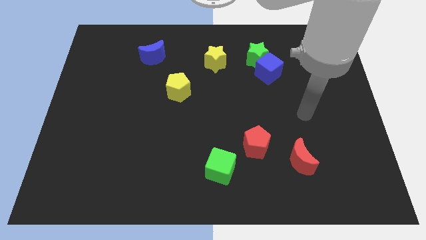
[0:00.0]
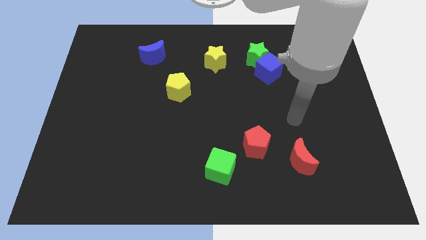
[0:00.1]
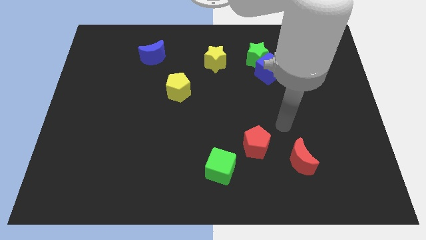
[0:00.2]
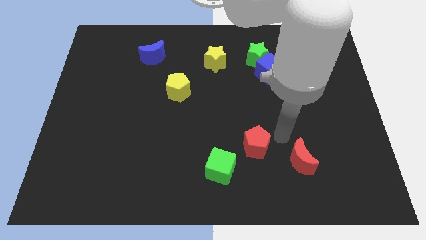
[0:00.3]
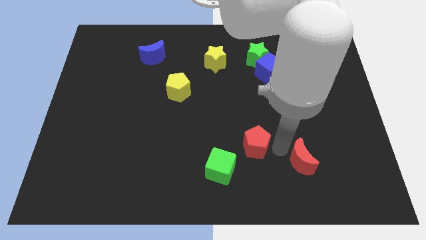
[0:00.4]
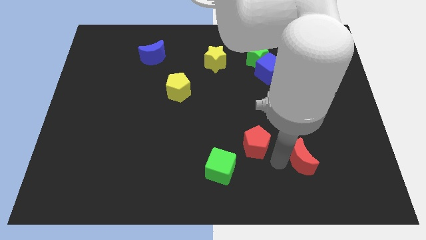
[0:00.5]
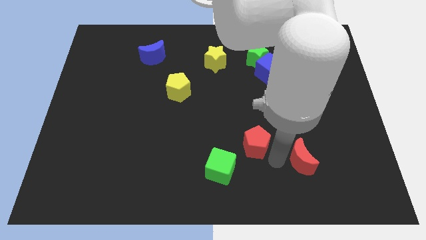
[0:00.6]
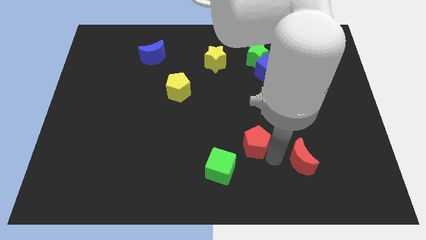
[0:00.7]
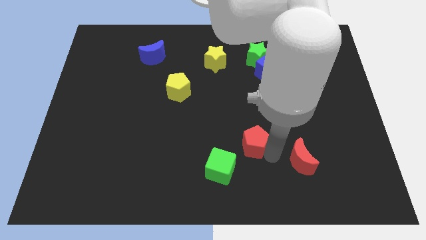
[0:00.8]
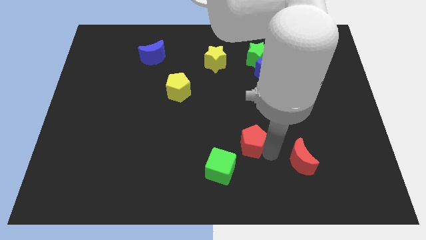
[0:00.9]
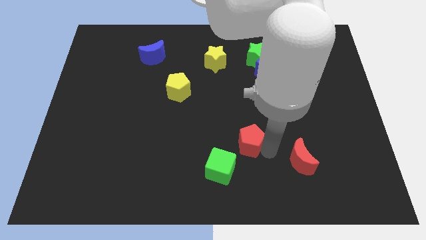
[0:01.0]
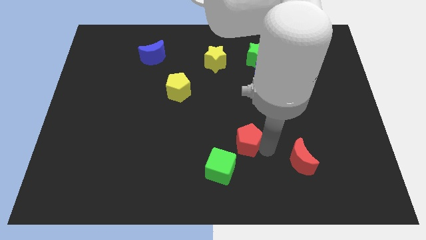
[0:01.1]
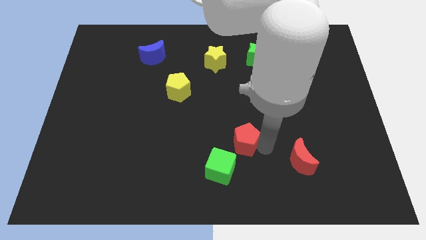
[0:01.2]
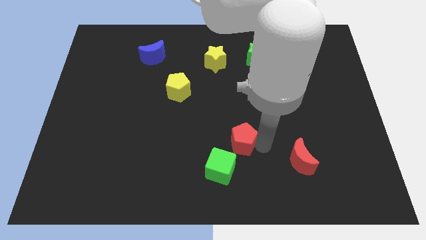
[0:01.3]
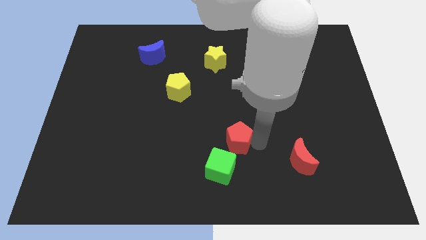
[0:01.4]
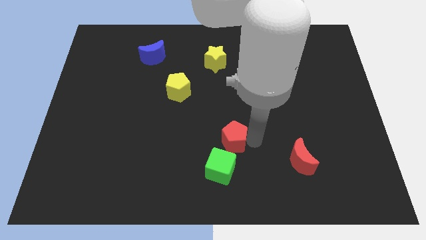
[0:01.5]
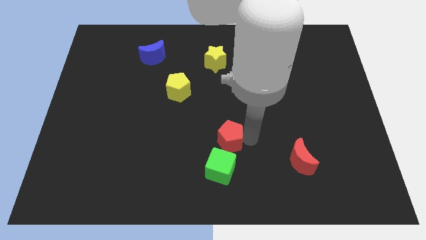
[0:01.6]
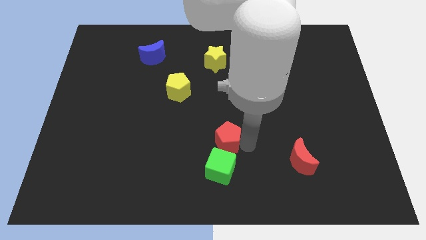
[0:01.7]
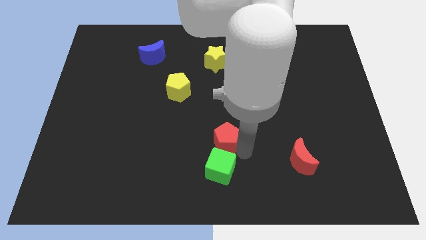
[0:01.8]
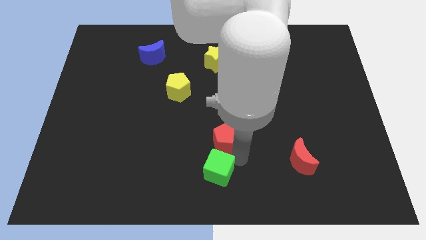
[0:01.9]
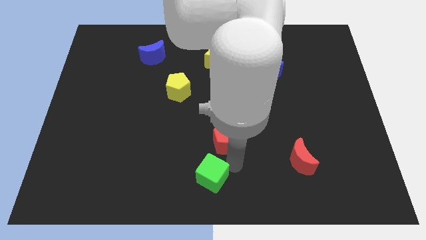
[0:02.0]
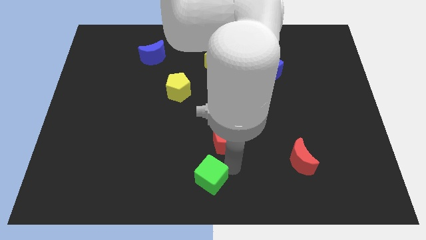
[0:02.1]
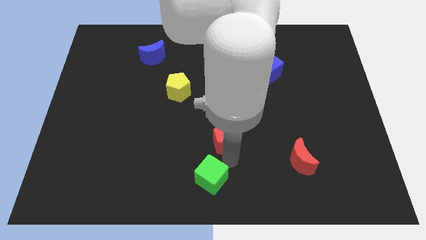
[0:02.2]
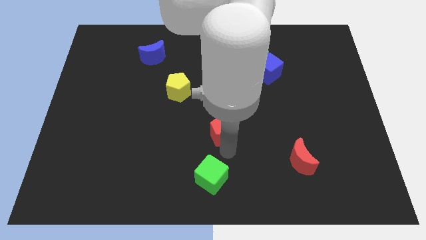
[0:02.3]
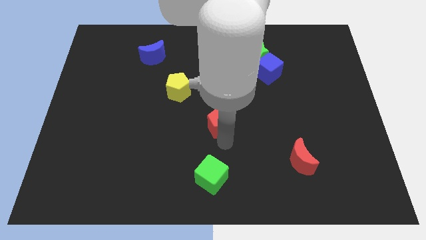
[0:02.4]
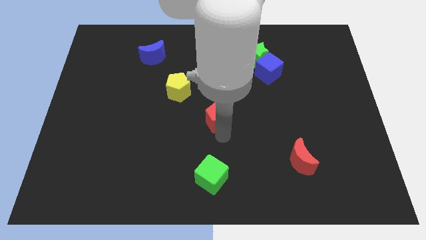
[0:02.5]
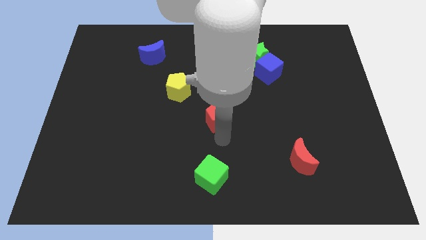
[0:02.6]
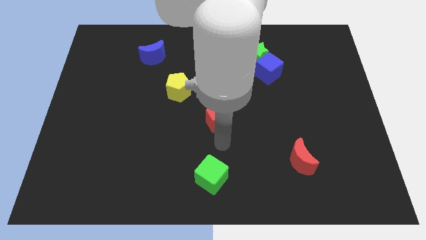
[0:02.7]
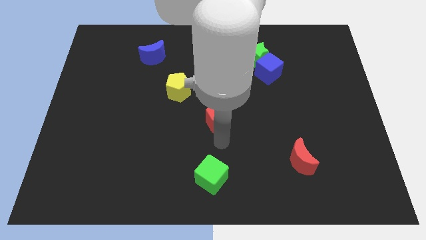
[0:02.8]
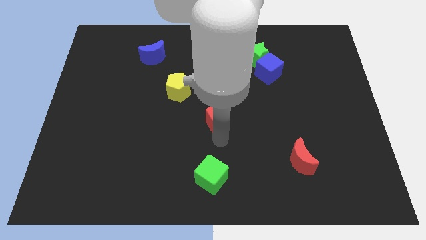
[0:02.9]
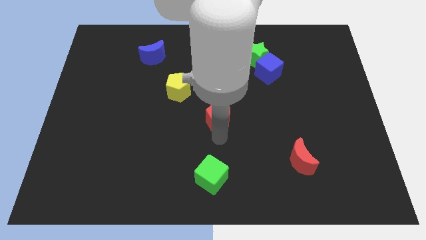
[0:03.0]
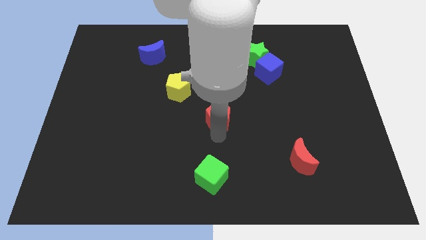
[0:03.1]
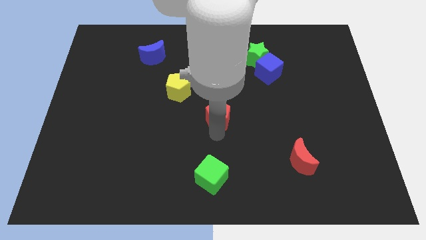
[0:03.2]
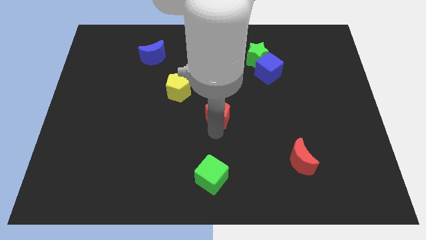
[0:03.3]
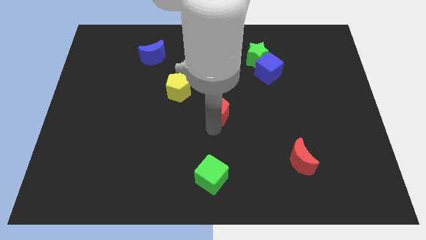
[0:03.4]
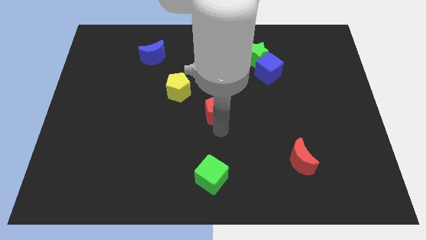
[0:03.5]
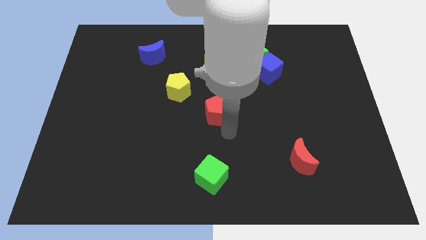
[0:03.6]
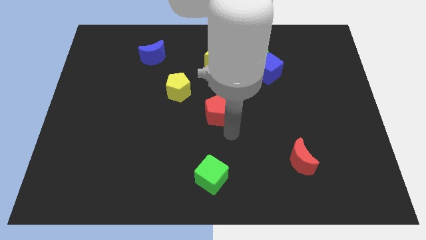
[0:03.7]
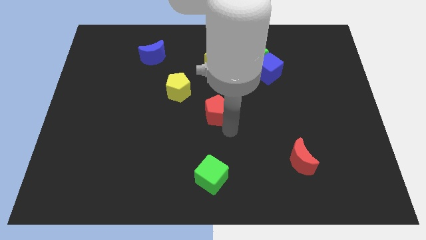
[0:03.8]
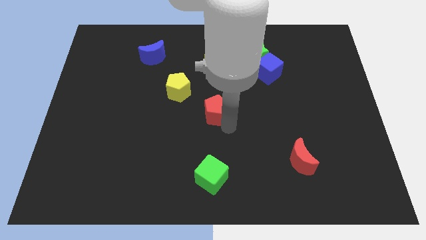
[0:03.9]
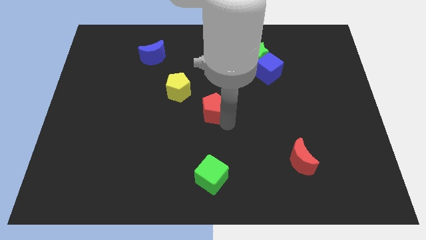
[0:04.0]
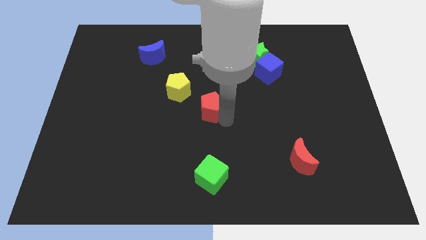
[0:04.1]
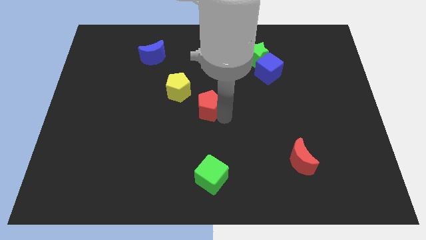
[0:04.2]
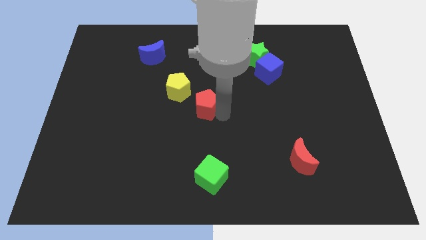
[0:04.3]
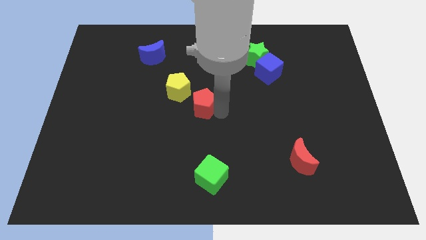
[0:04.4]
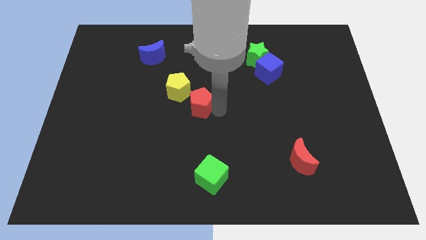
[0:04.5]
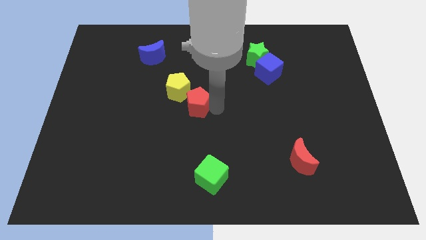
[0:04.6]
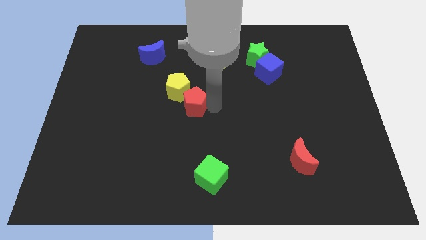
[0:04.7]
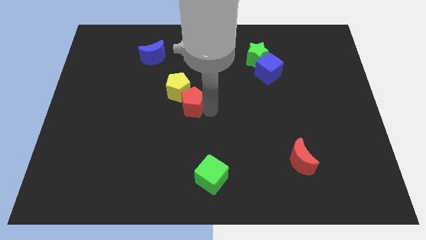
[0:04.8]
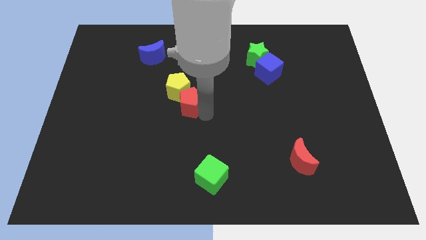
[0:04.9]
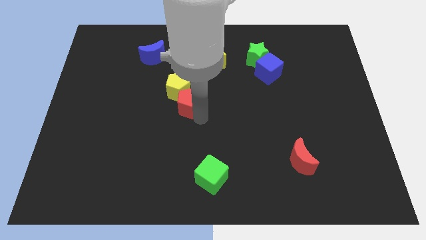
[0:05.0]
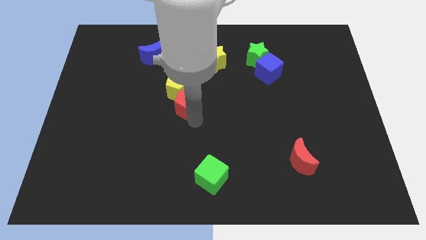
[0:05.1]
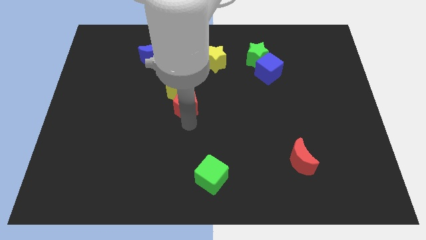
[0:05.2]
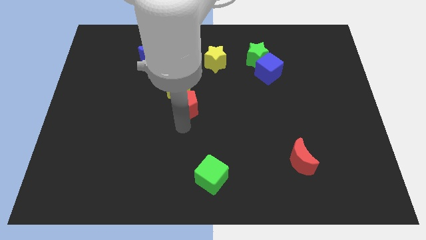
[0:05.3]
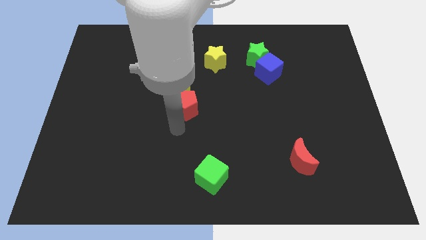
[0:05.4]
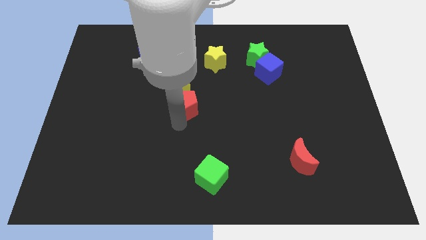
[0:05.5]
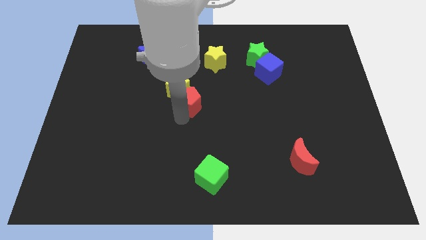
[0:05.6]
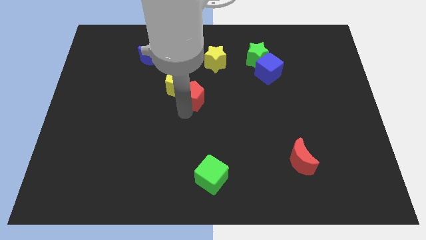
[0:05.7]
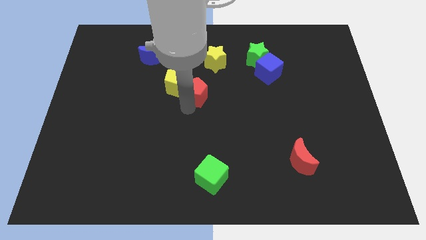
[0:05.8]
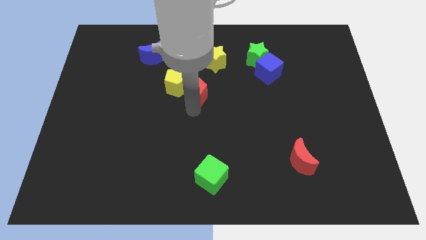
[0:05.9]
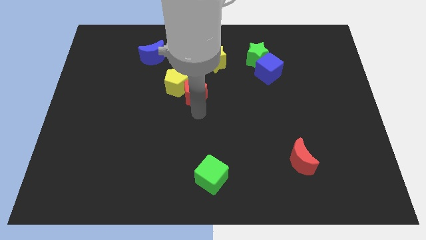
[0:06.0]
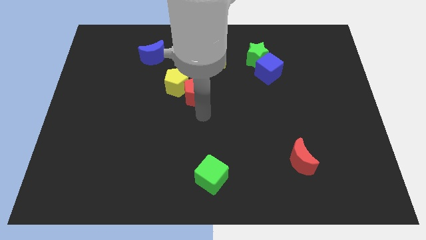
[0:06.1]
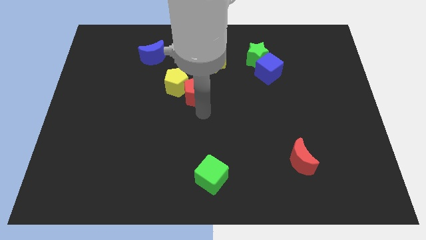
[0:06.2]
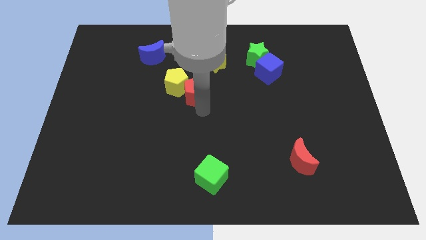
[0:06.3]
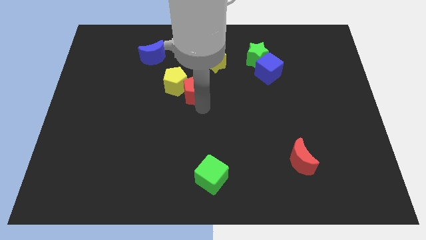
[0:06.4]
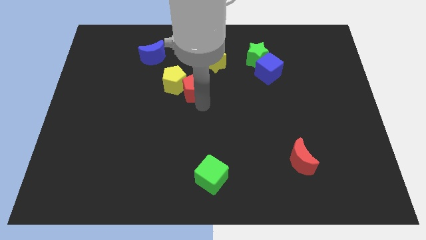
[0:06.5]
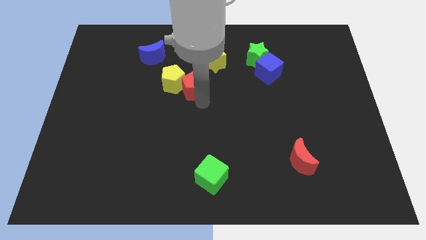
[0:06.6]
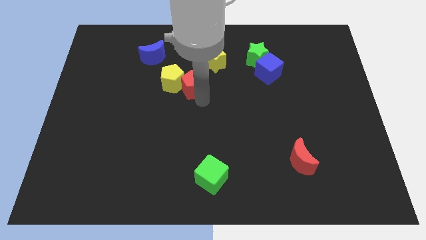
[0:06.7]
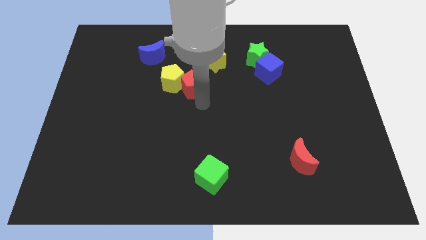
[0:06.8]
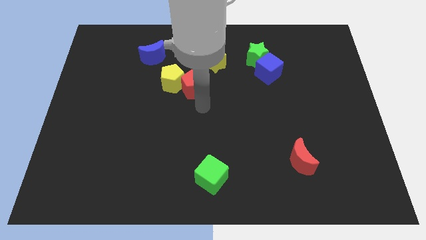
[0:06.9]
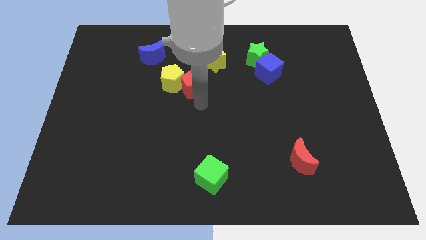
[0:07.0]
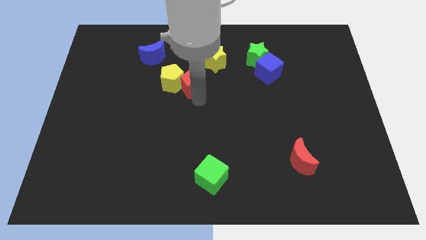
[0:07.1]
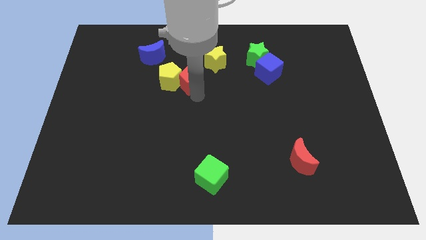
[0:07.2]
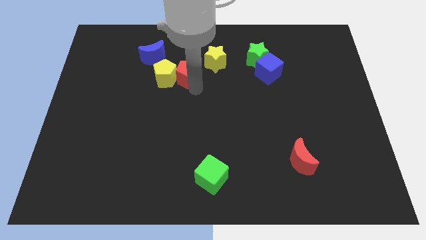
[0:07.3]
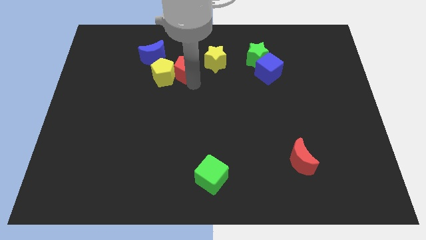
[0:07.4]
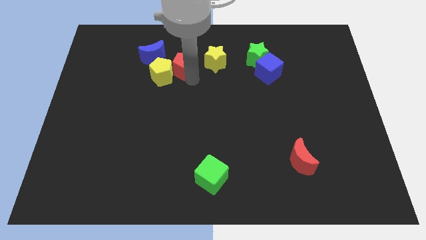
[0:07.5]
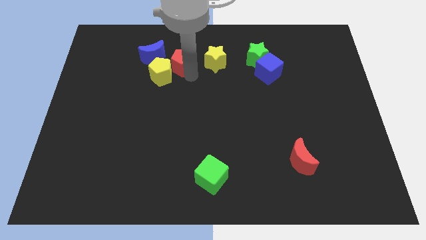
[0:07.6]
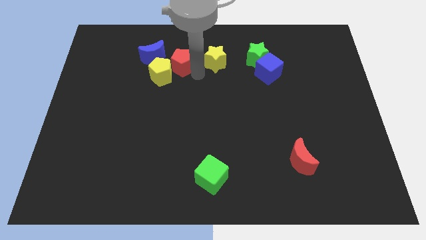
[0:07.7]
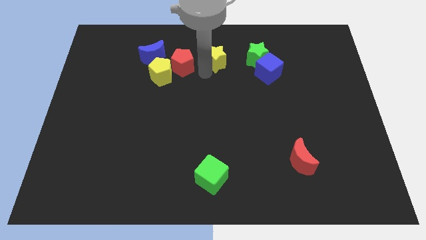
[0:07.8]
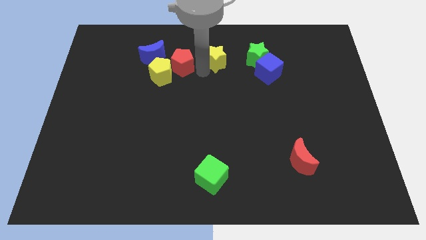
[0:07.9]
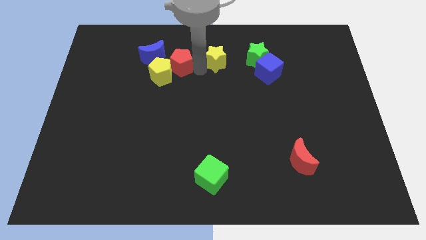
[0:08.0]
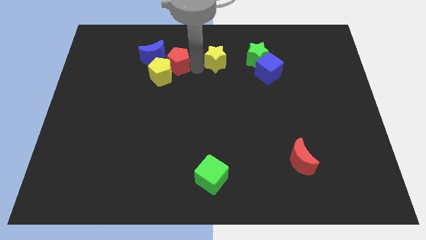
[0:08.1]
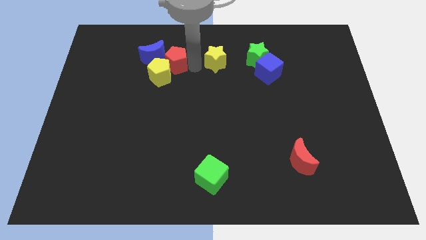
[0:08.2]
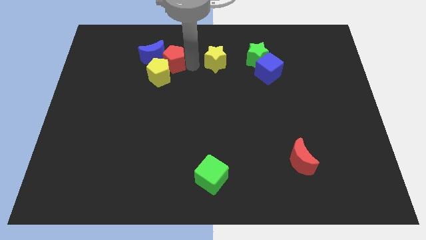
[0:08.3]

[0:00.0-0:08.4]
put the red pentagon close to the blue moon
